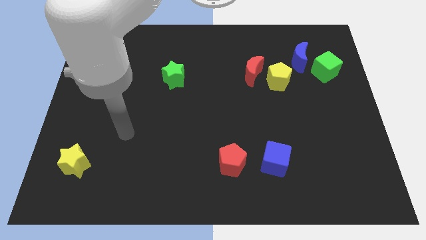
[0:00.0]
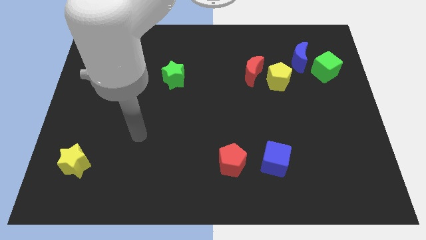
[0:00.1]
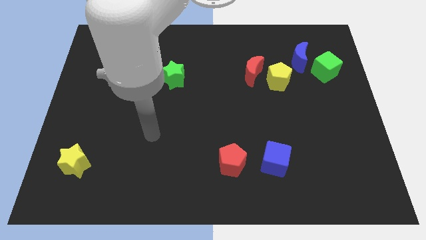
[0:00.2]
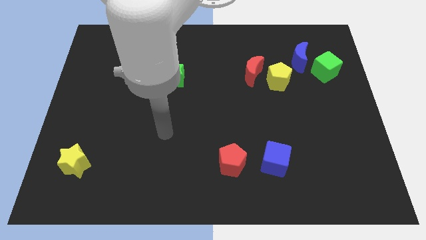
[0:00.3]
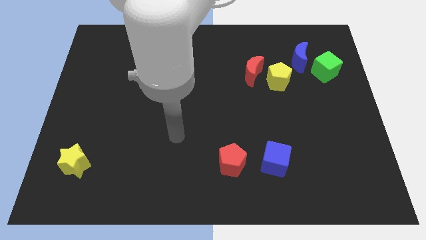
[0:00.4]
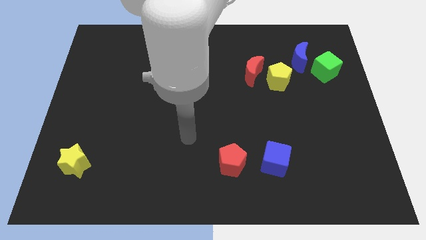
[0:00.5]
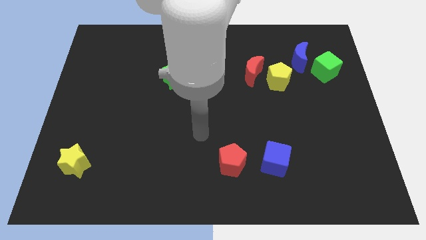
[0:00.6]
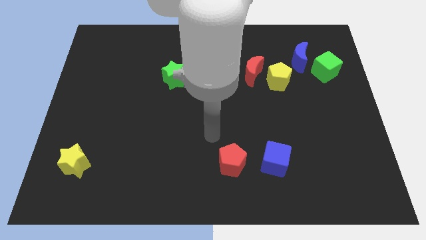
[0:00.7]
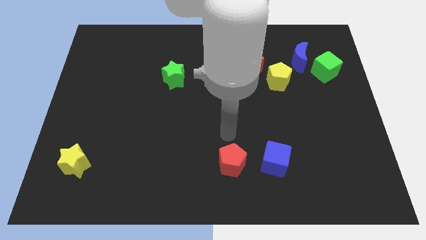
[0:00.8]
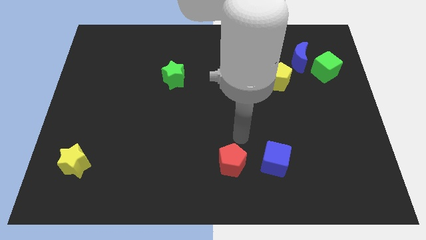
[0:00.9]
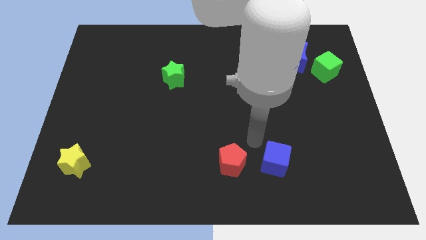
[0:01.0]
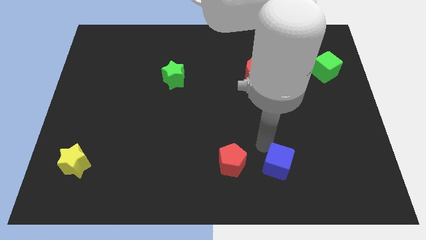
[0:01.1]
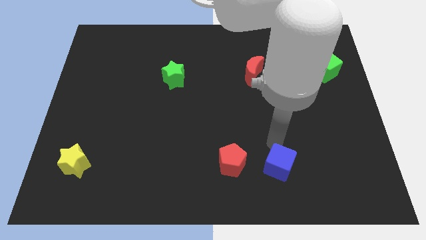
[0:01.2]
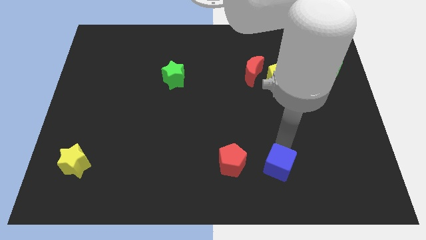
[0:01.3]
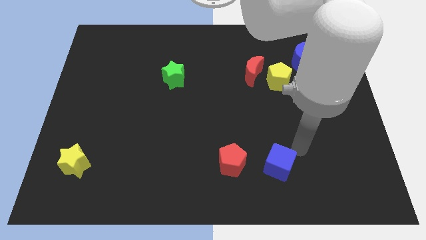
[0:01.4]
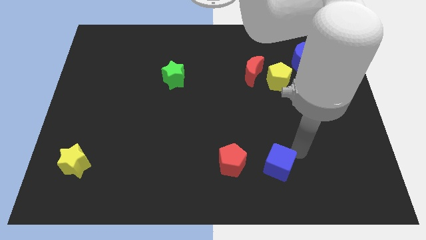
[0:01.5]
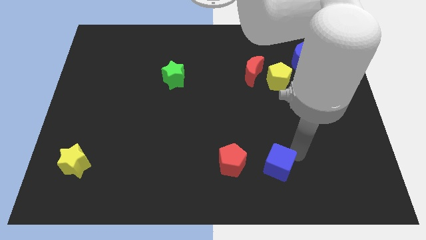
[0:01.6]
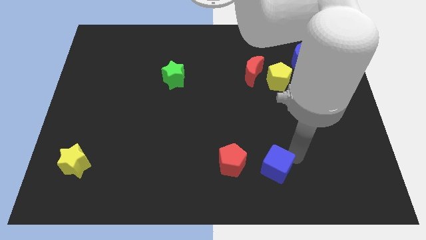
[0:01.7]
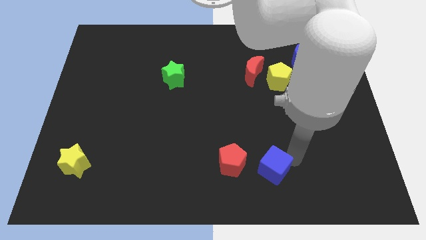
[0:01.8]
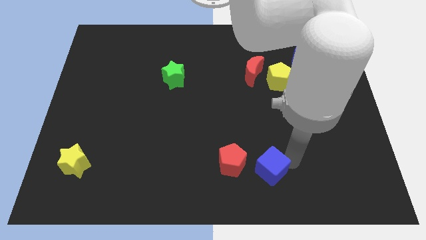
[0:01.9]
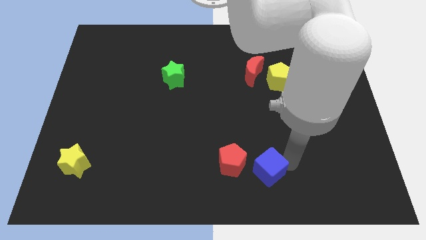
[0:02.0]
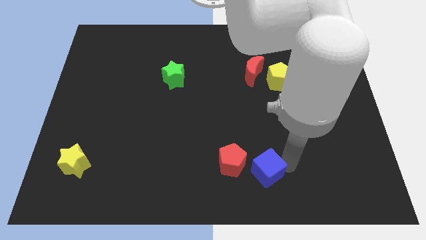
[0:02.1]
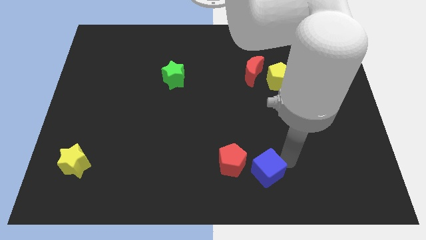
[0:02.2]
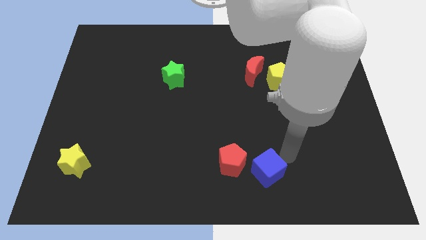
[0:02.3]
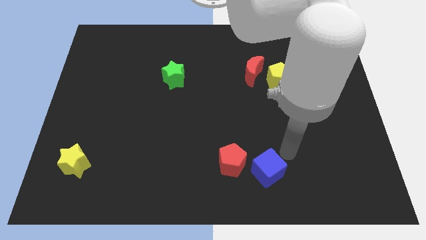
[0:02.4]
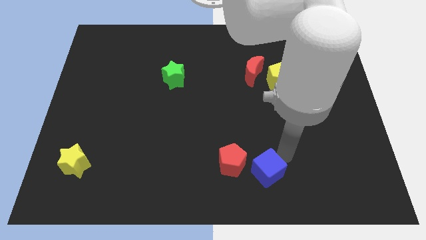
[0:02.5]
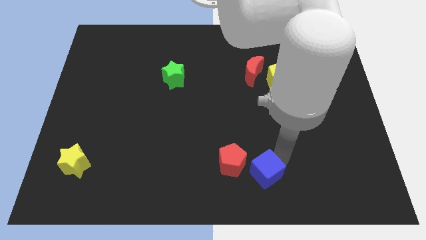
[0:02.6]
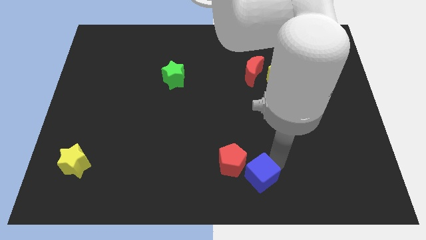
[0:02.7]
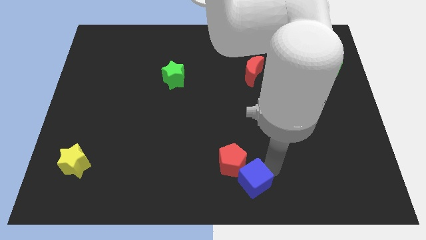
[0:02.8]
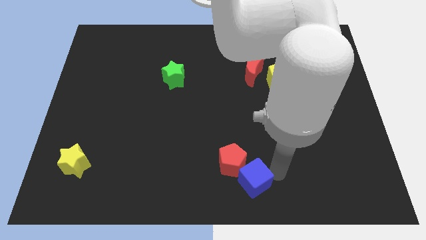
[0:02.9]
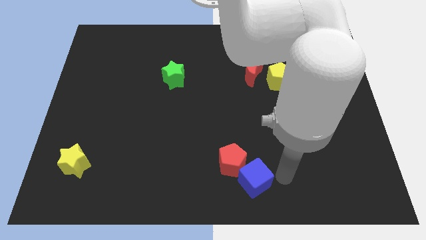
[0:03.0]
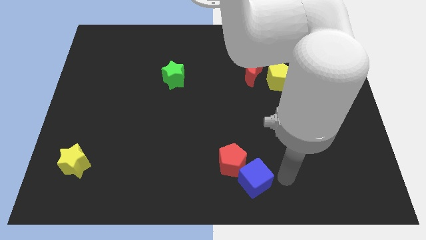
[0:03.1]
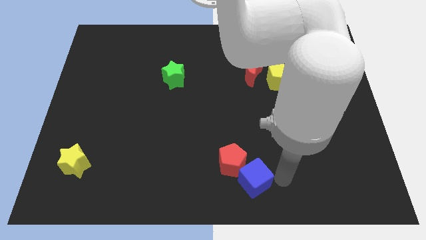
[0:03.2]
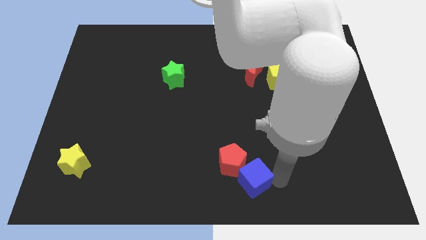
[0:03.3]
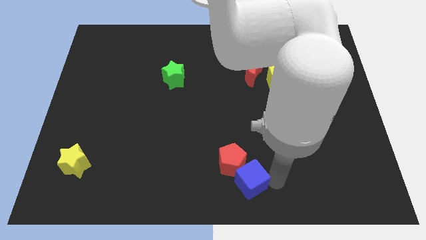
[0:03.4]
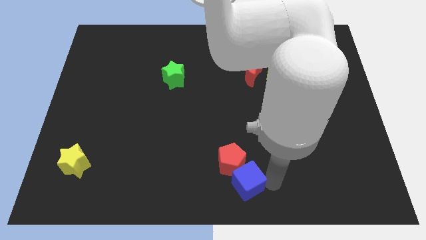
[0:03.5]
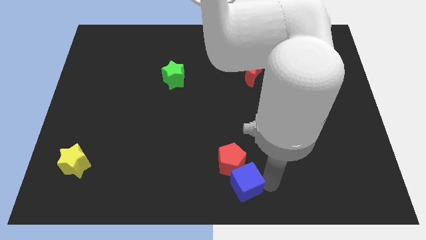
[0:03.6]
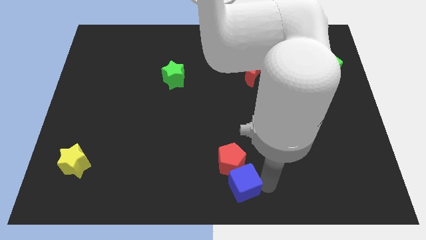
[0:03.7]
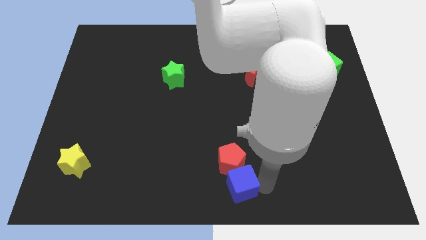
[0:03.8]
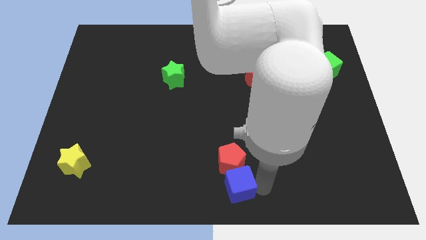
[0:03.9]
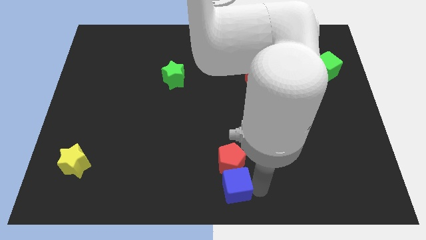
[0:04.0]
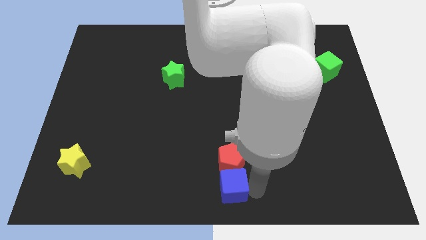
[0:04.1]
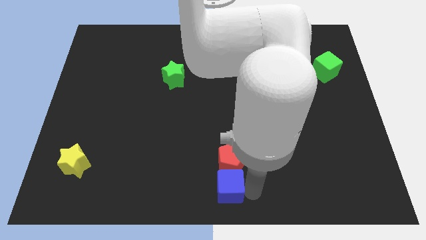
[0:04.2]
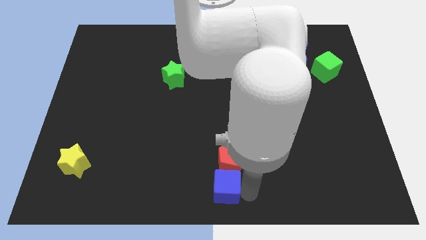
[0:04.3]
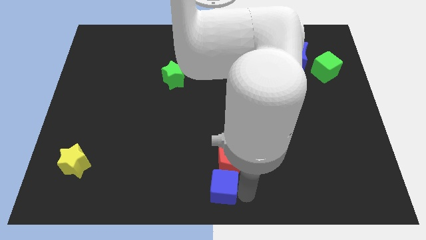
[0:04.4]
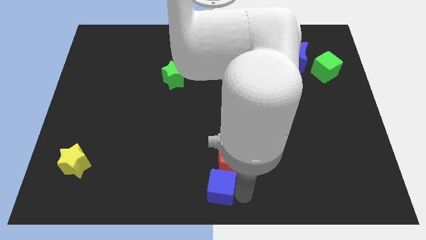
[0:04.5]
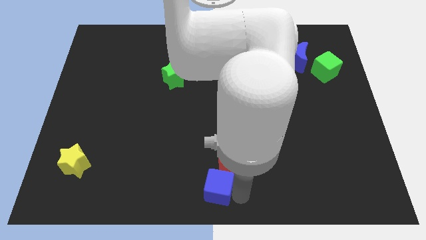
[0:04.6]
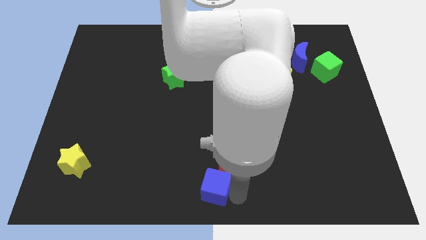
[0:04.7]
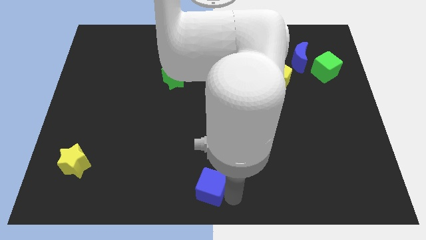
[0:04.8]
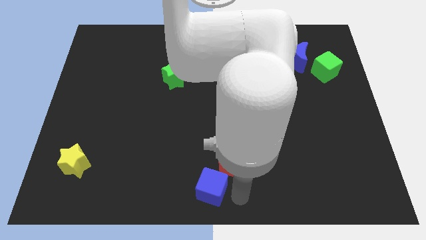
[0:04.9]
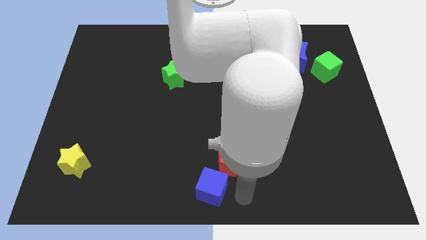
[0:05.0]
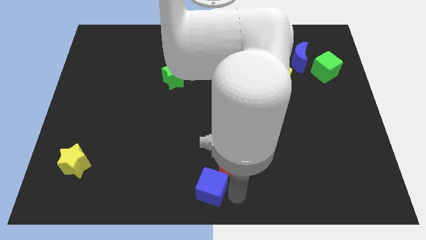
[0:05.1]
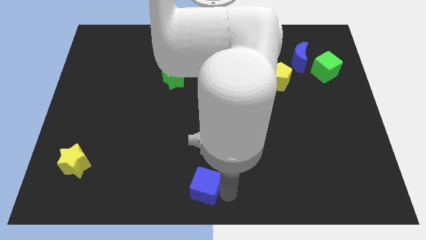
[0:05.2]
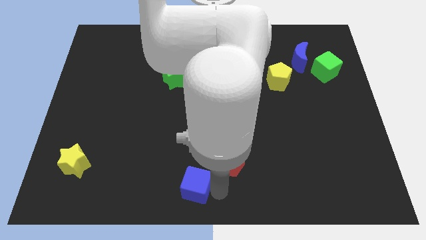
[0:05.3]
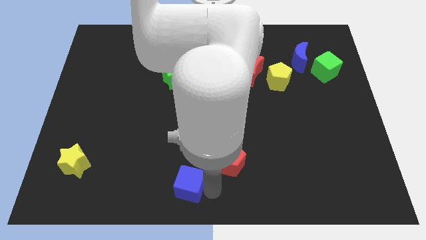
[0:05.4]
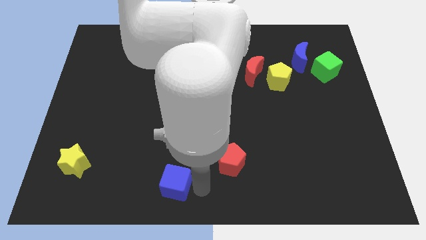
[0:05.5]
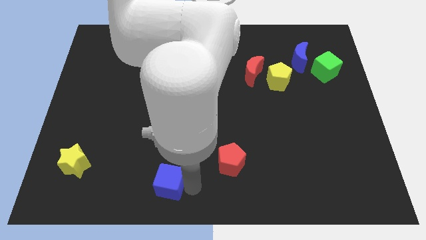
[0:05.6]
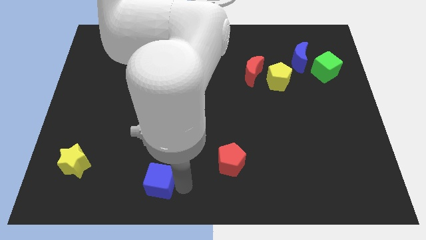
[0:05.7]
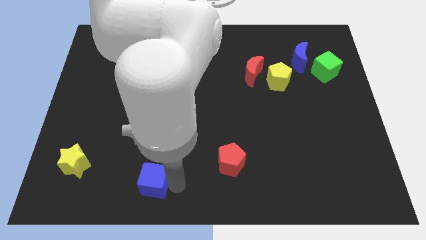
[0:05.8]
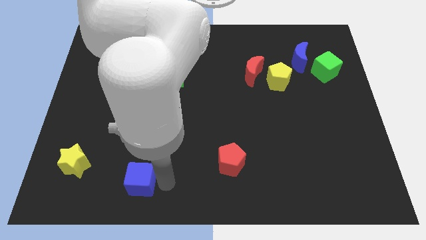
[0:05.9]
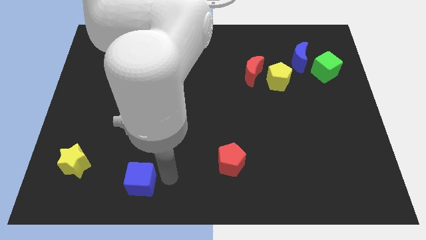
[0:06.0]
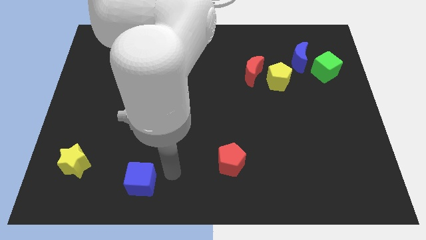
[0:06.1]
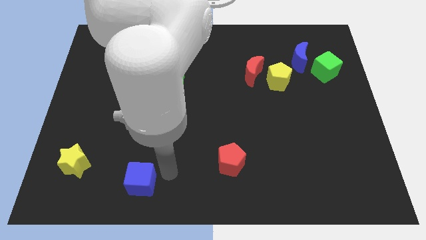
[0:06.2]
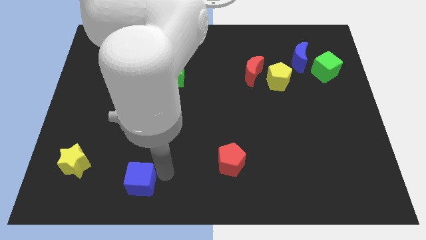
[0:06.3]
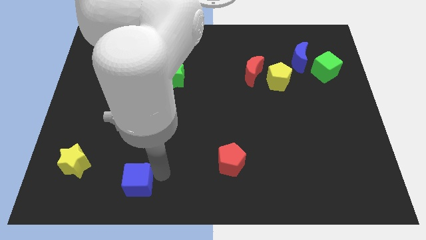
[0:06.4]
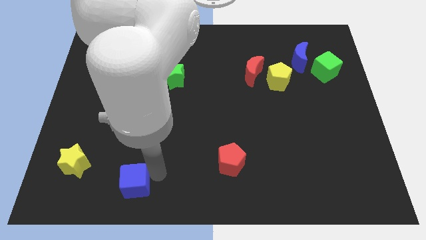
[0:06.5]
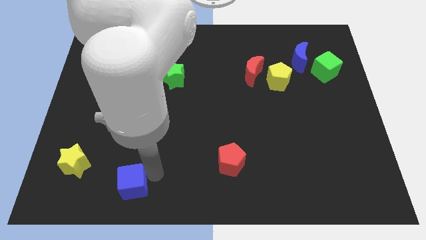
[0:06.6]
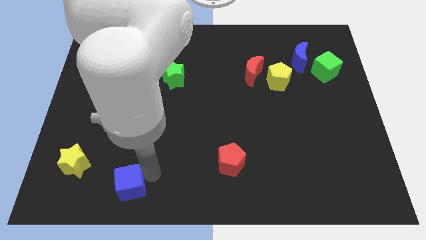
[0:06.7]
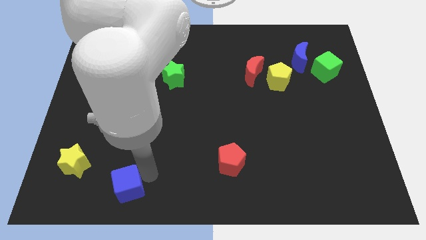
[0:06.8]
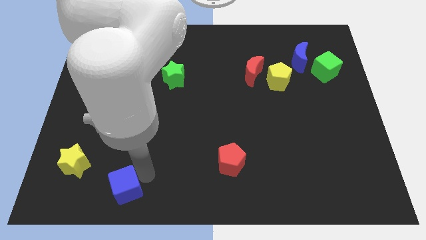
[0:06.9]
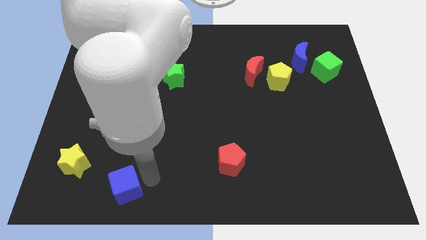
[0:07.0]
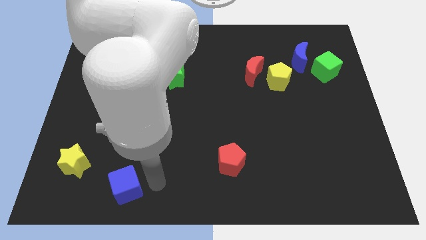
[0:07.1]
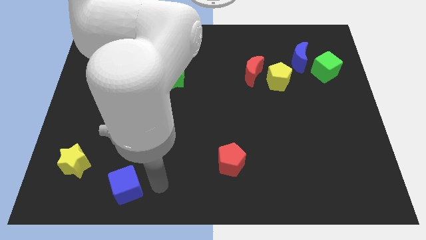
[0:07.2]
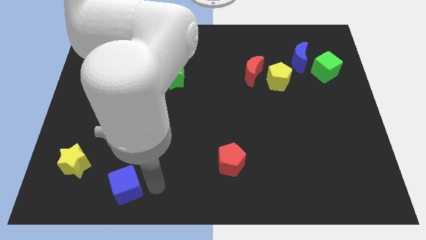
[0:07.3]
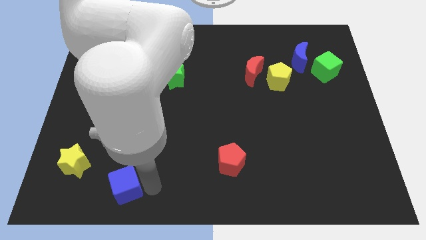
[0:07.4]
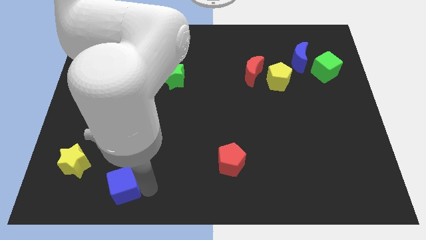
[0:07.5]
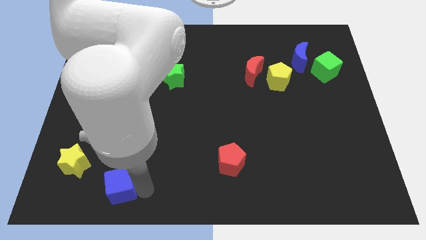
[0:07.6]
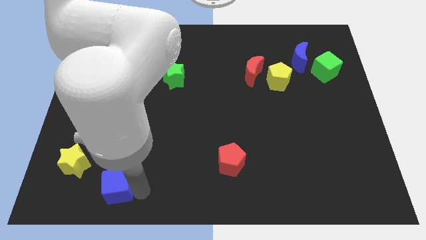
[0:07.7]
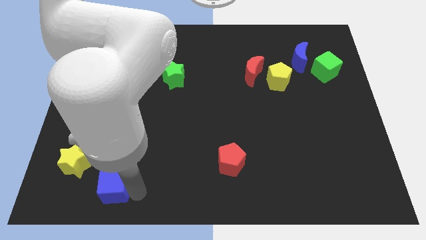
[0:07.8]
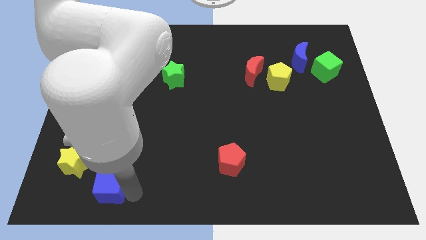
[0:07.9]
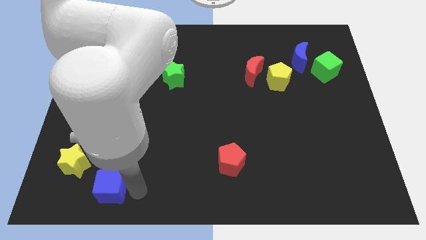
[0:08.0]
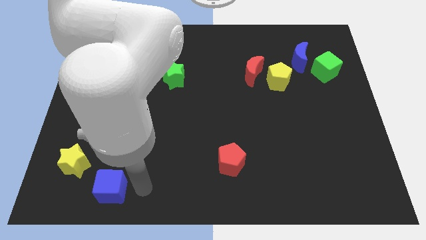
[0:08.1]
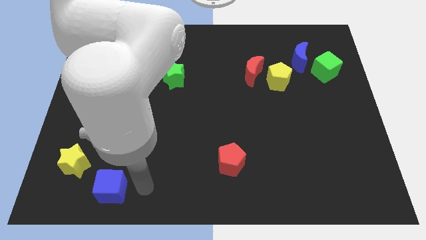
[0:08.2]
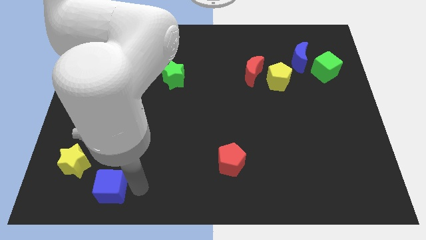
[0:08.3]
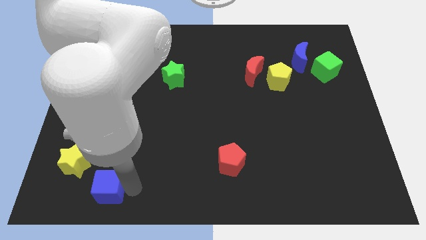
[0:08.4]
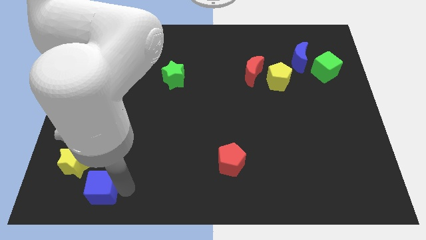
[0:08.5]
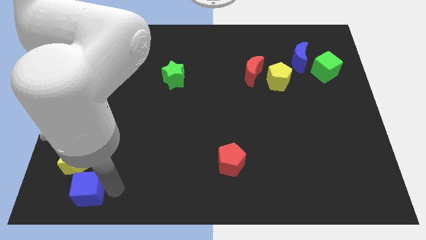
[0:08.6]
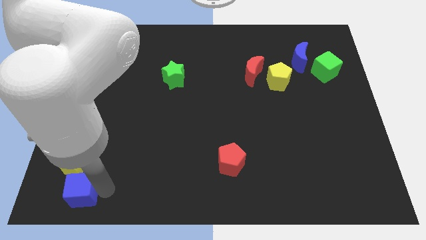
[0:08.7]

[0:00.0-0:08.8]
move the blue cube to the bottom left
